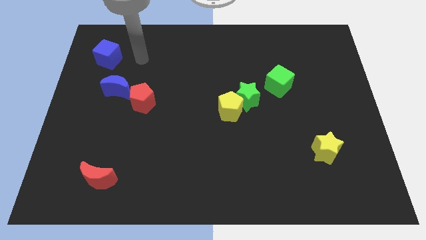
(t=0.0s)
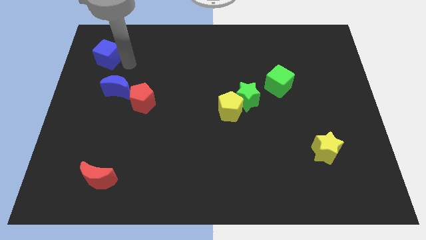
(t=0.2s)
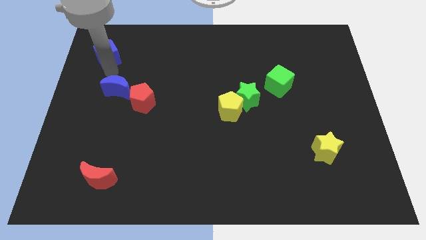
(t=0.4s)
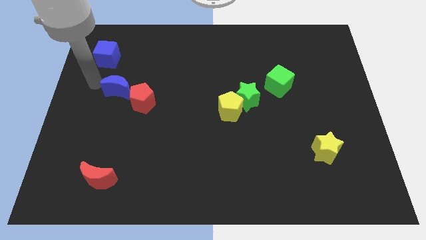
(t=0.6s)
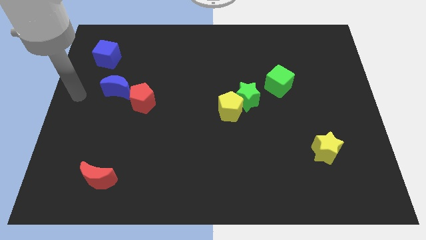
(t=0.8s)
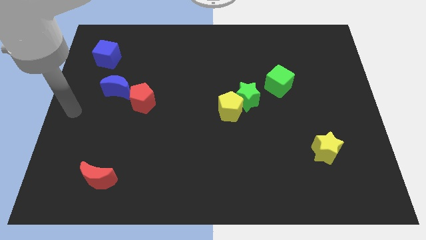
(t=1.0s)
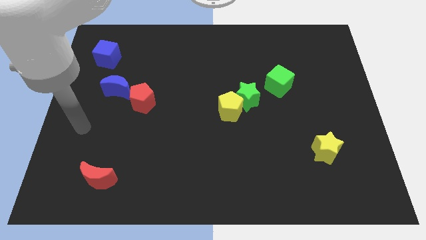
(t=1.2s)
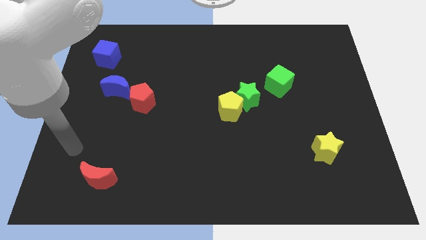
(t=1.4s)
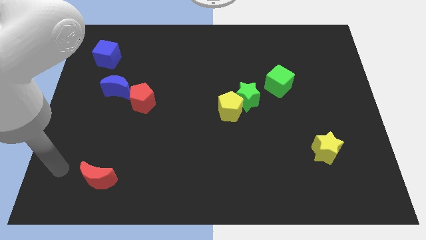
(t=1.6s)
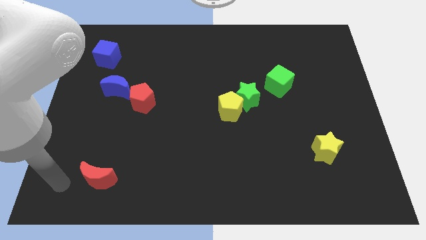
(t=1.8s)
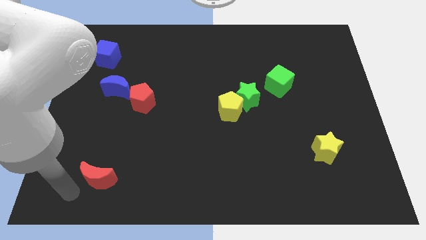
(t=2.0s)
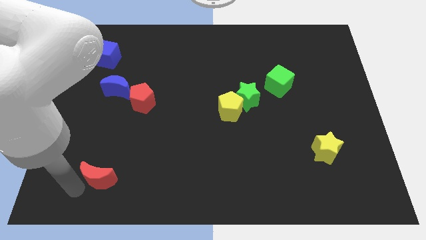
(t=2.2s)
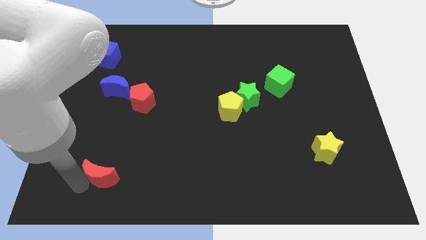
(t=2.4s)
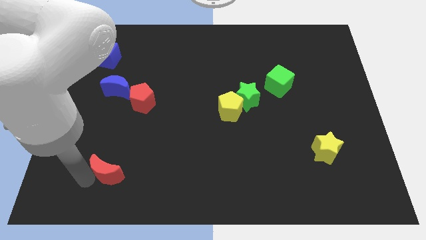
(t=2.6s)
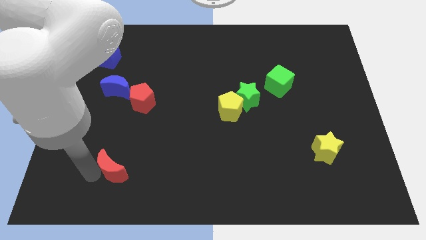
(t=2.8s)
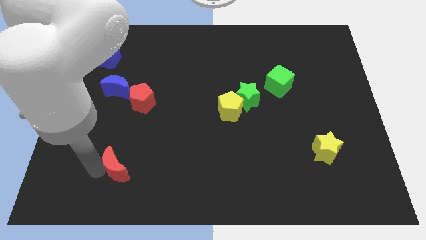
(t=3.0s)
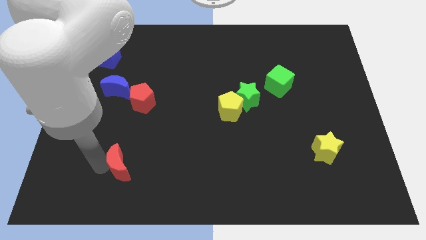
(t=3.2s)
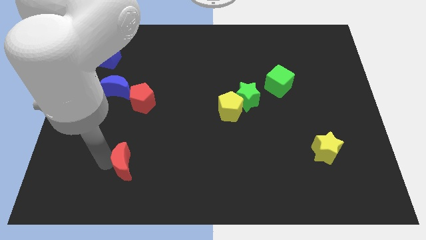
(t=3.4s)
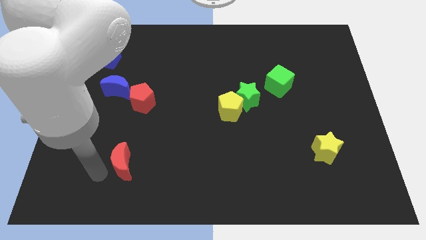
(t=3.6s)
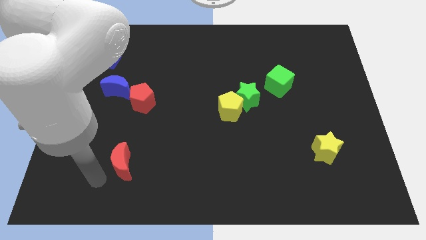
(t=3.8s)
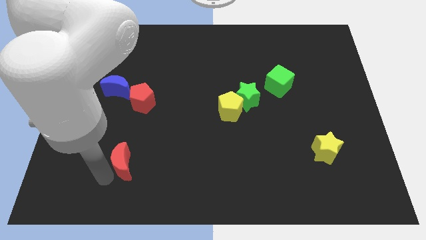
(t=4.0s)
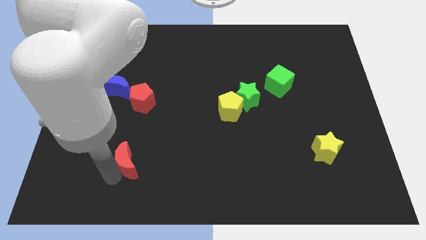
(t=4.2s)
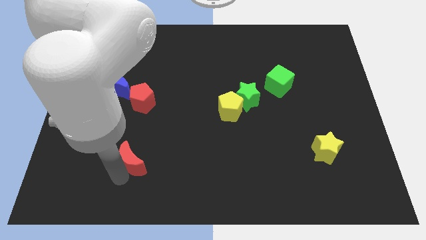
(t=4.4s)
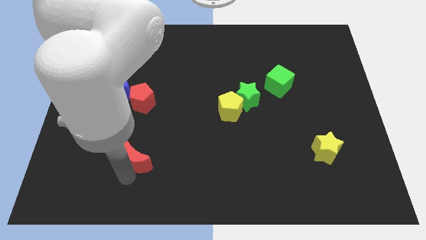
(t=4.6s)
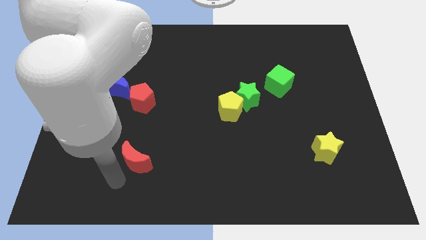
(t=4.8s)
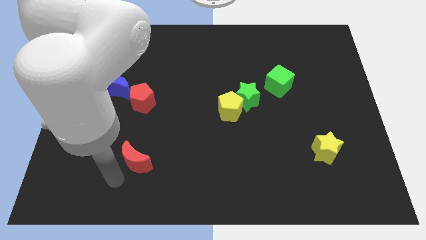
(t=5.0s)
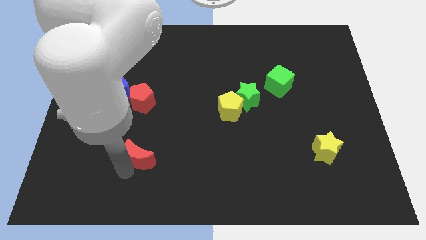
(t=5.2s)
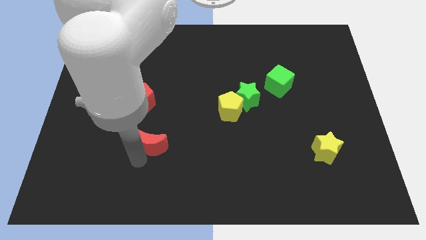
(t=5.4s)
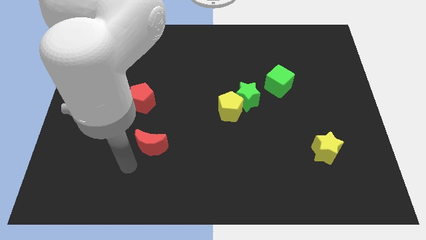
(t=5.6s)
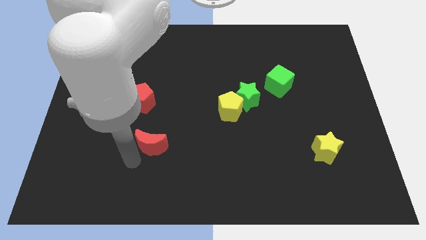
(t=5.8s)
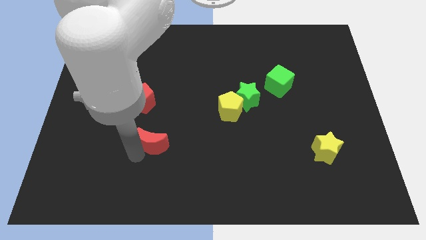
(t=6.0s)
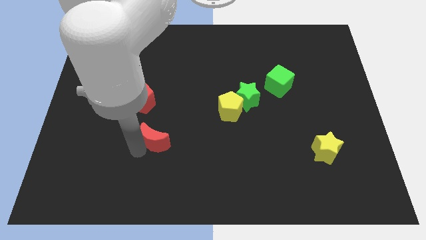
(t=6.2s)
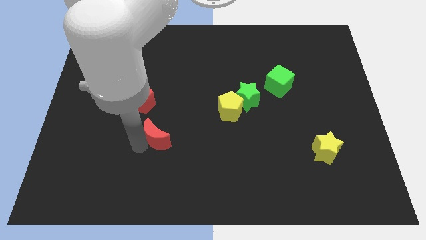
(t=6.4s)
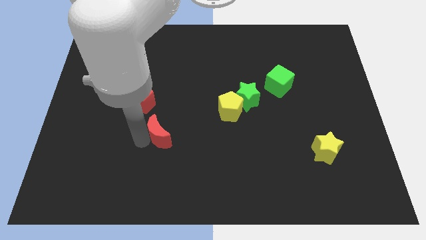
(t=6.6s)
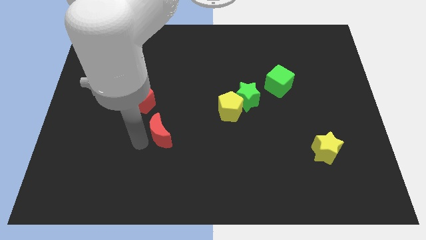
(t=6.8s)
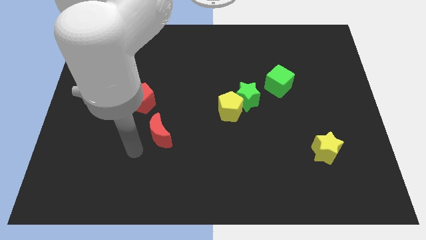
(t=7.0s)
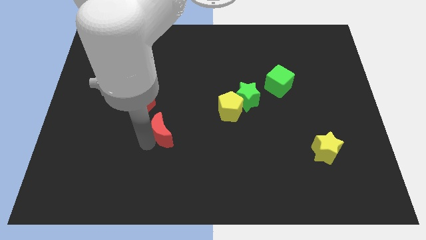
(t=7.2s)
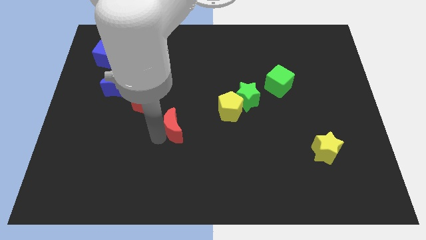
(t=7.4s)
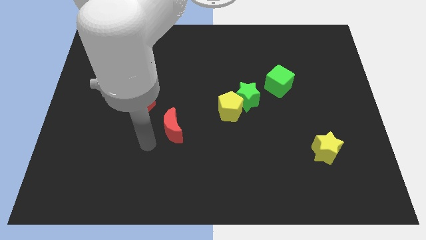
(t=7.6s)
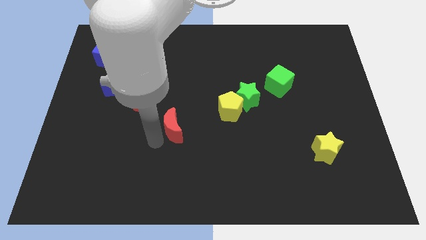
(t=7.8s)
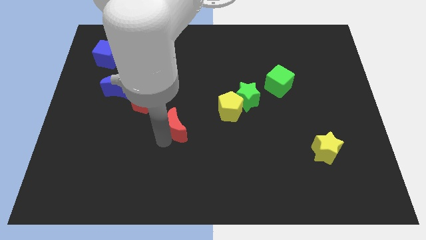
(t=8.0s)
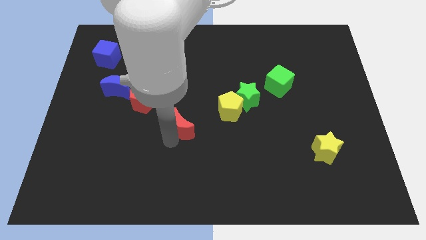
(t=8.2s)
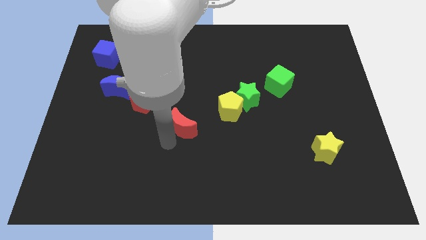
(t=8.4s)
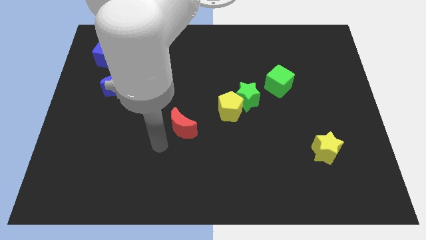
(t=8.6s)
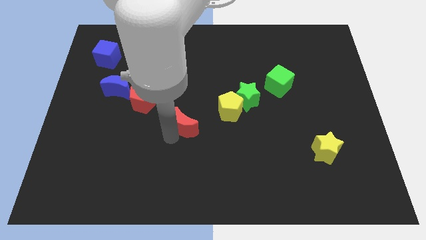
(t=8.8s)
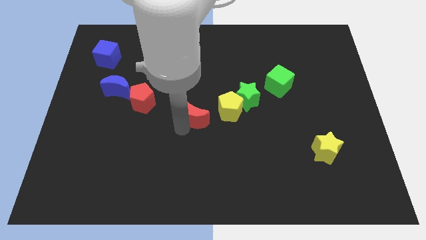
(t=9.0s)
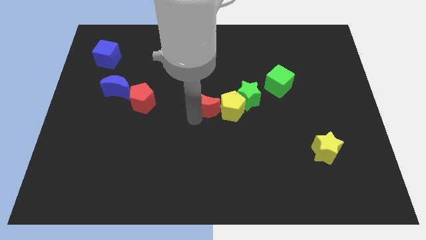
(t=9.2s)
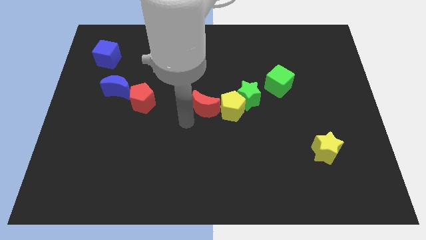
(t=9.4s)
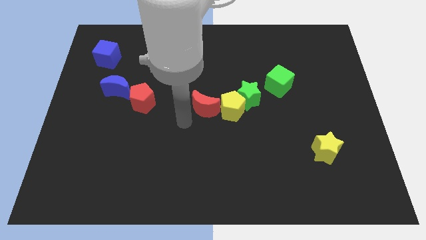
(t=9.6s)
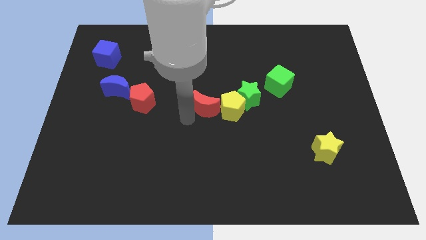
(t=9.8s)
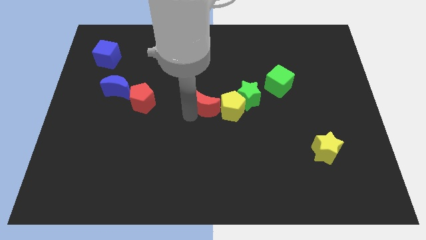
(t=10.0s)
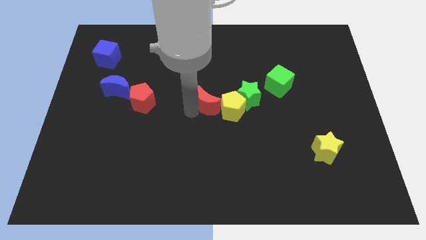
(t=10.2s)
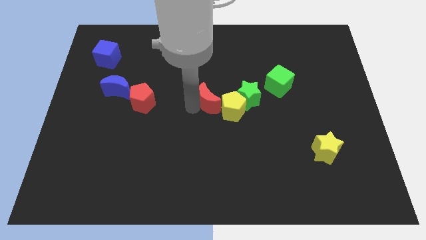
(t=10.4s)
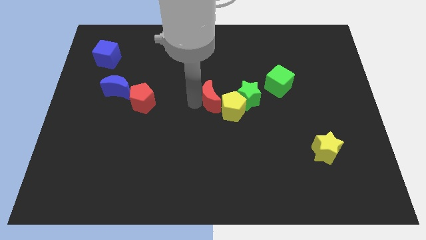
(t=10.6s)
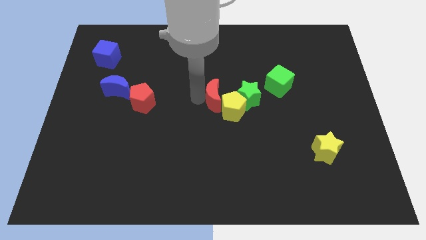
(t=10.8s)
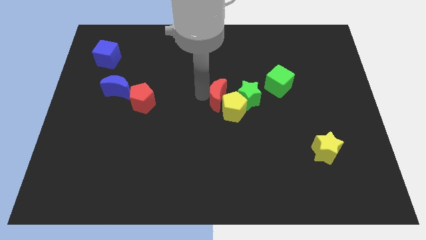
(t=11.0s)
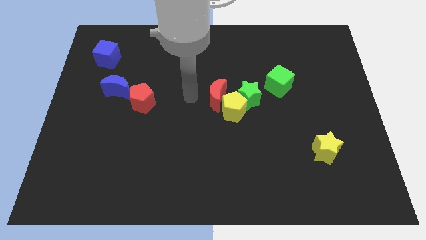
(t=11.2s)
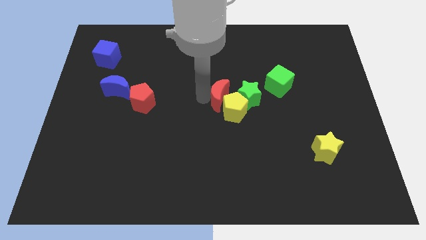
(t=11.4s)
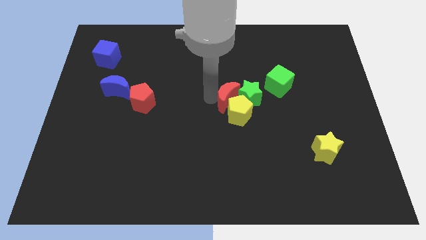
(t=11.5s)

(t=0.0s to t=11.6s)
put the red moon next to the green star

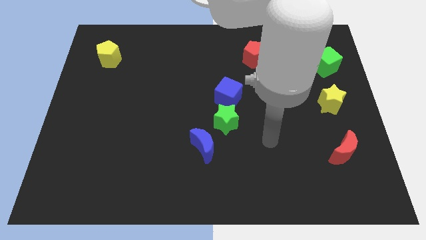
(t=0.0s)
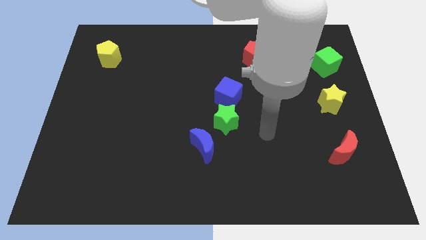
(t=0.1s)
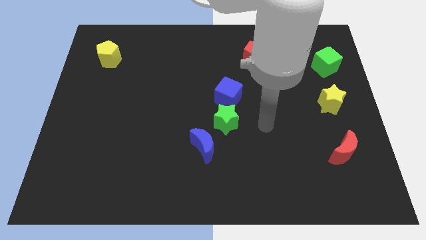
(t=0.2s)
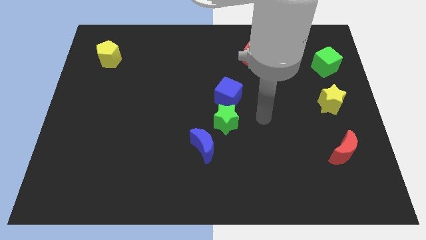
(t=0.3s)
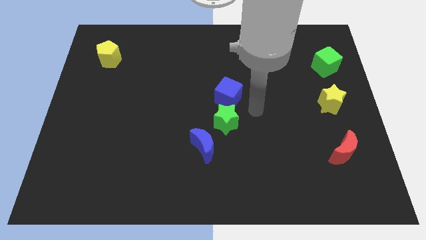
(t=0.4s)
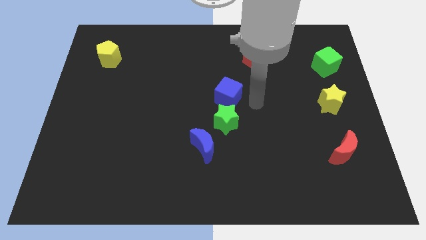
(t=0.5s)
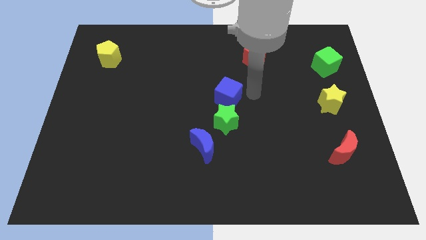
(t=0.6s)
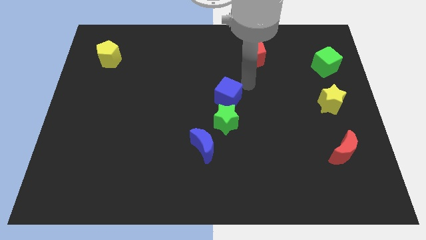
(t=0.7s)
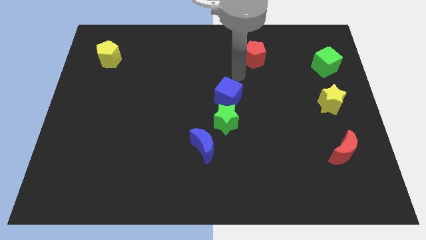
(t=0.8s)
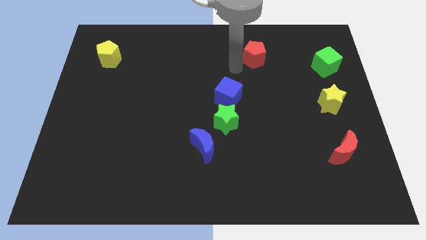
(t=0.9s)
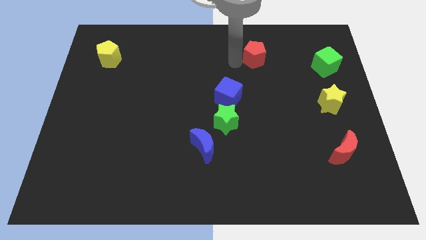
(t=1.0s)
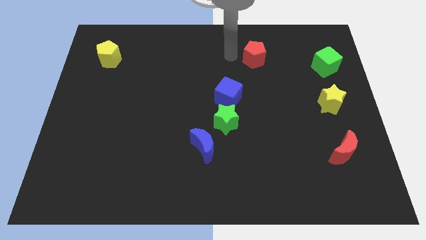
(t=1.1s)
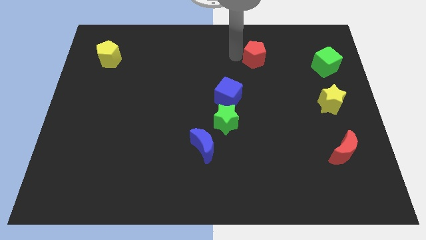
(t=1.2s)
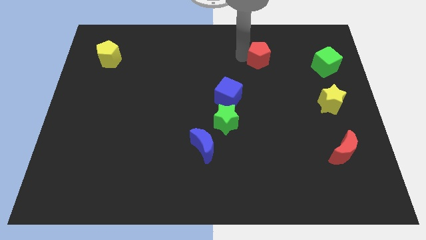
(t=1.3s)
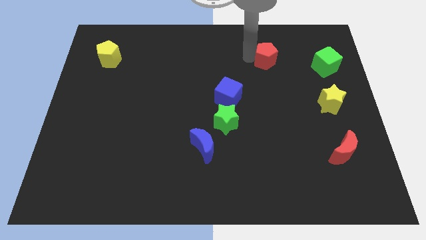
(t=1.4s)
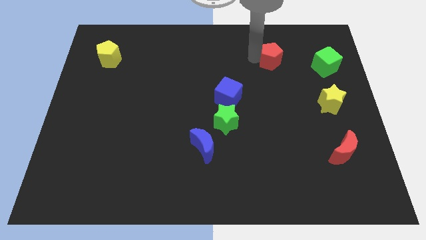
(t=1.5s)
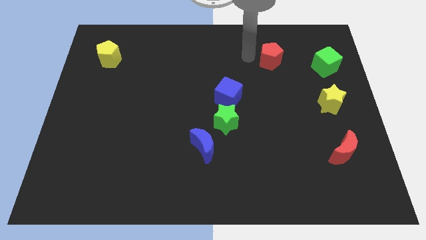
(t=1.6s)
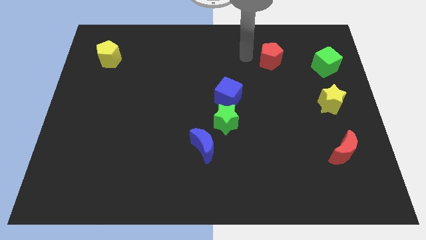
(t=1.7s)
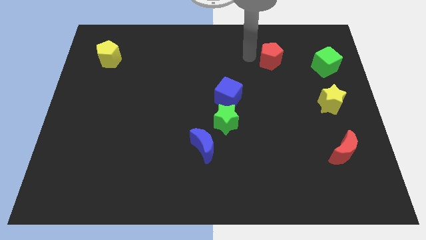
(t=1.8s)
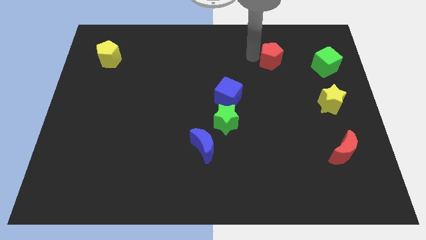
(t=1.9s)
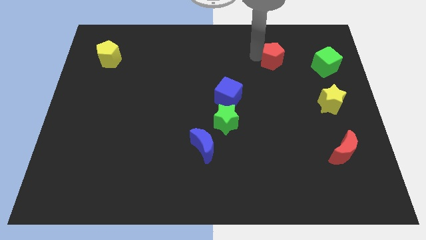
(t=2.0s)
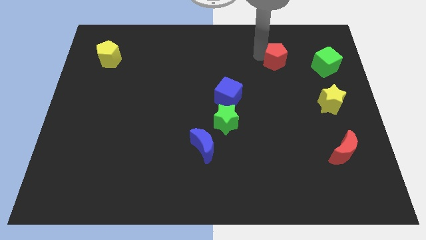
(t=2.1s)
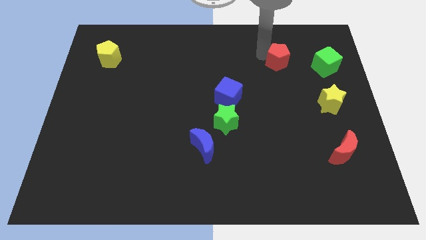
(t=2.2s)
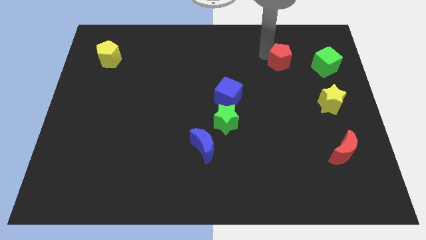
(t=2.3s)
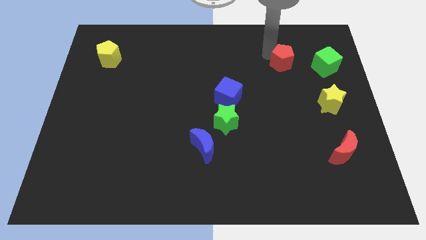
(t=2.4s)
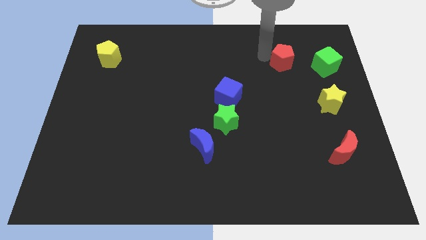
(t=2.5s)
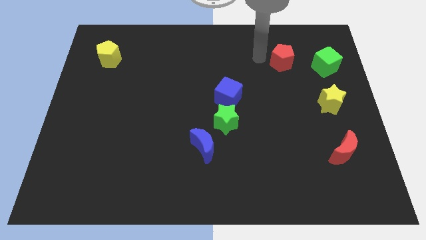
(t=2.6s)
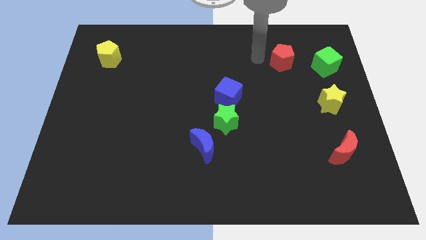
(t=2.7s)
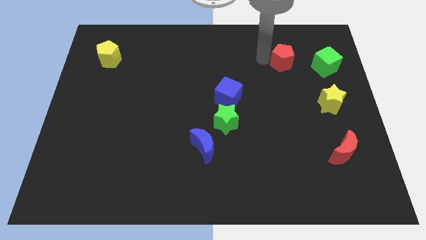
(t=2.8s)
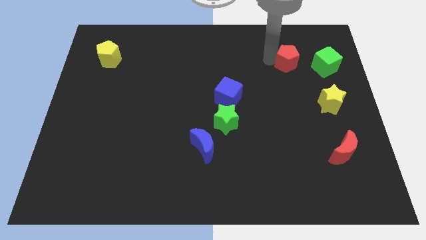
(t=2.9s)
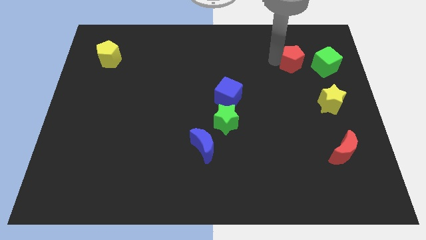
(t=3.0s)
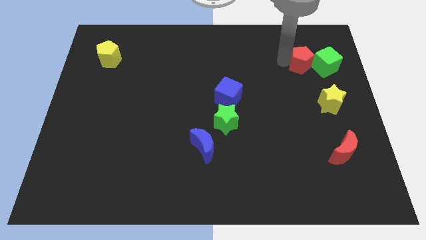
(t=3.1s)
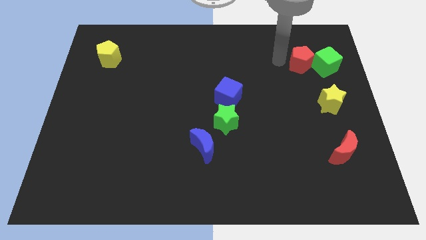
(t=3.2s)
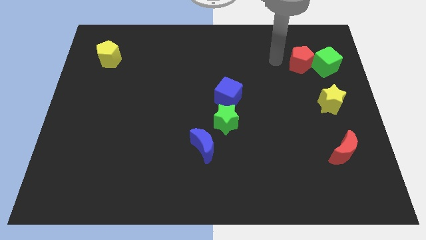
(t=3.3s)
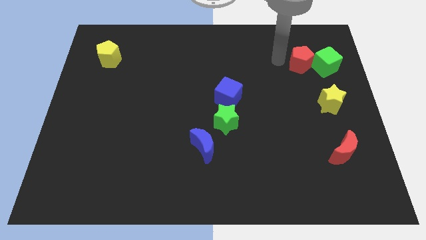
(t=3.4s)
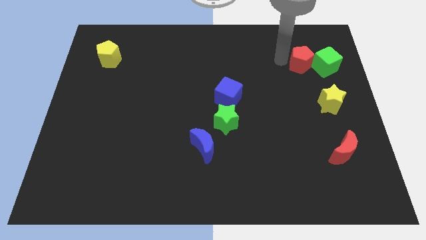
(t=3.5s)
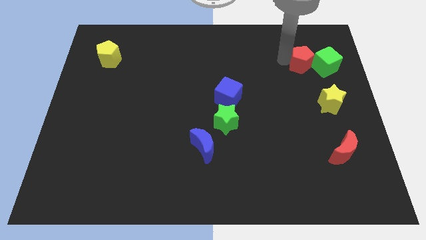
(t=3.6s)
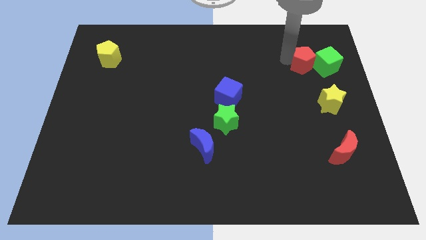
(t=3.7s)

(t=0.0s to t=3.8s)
move the red pentagon to the green cube
